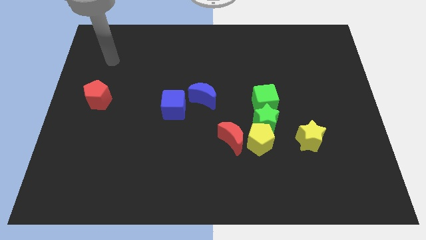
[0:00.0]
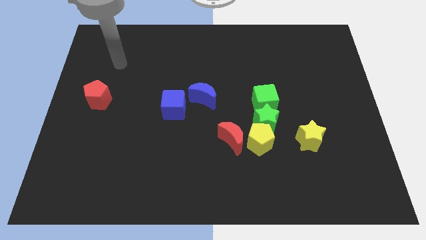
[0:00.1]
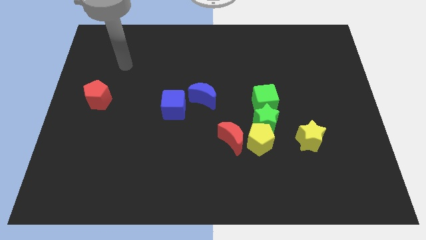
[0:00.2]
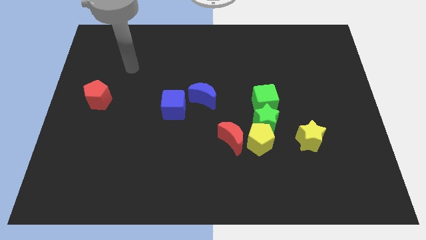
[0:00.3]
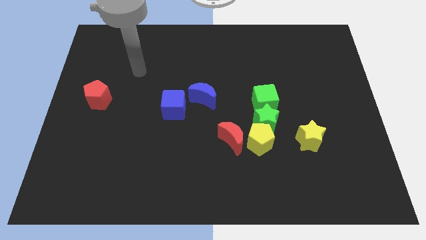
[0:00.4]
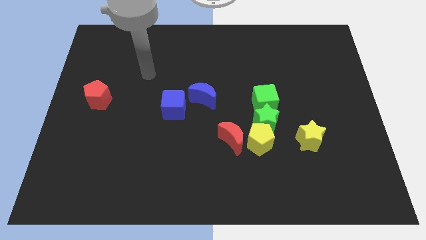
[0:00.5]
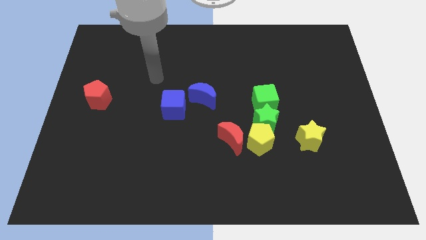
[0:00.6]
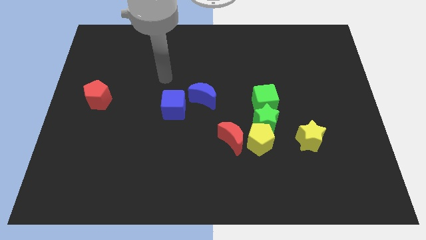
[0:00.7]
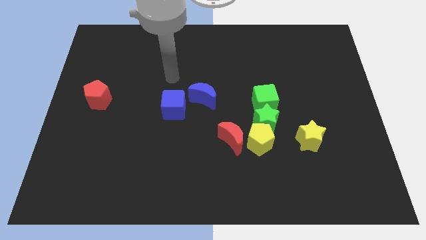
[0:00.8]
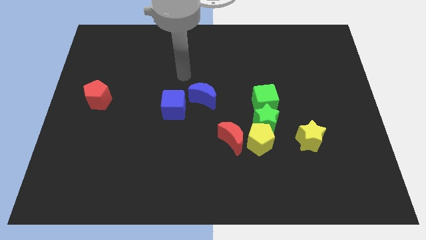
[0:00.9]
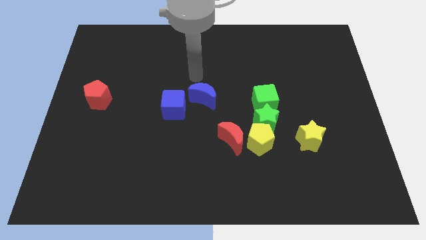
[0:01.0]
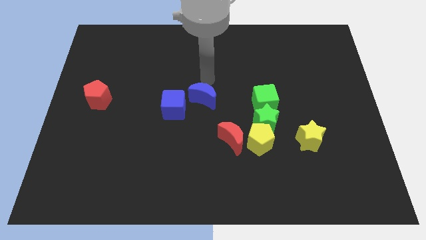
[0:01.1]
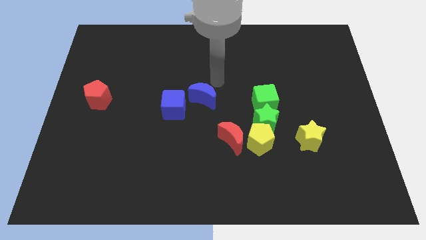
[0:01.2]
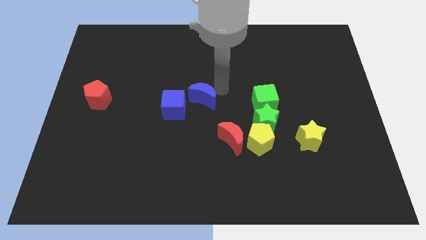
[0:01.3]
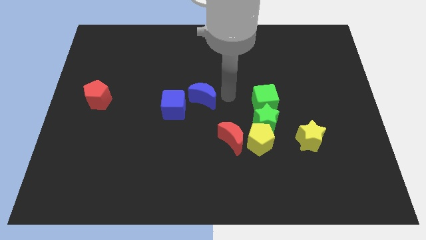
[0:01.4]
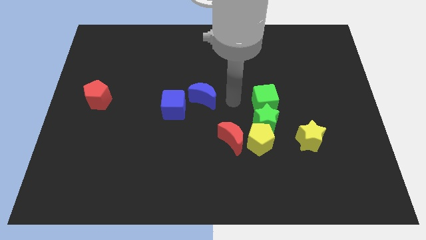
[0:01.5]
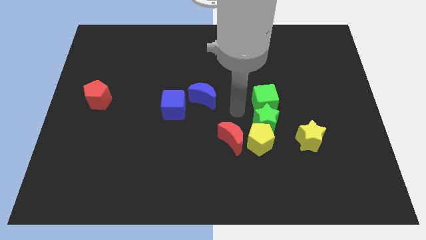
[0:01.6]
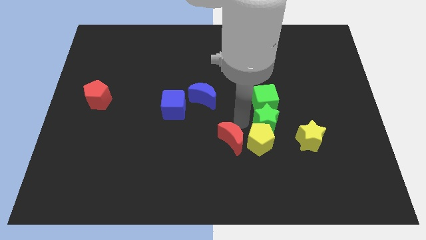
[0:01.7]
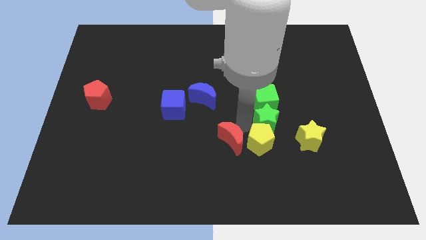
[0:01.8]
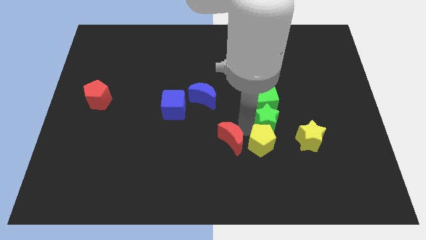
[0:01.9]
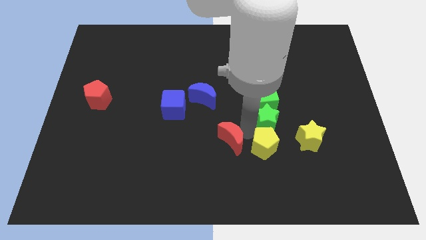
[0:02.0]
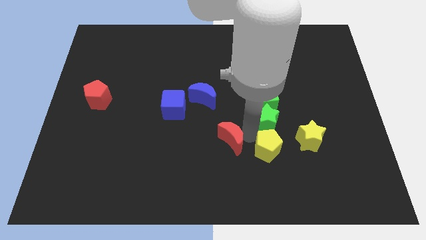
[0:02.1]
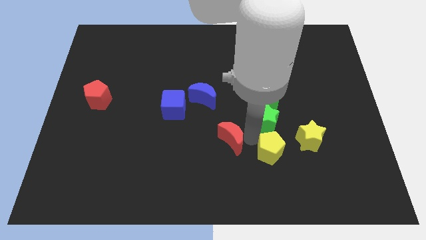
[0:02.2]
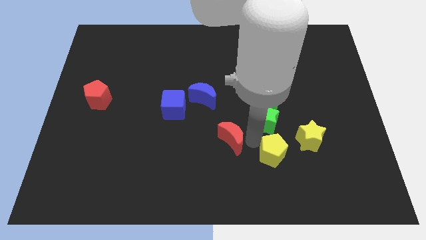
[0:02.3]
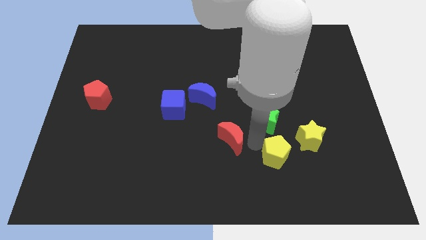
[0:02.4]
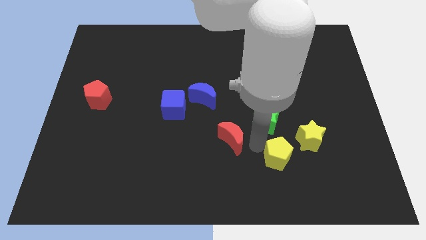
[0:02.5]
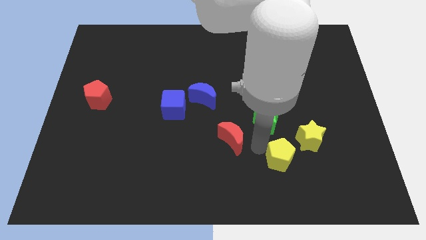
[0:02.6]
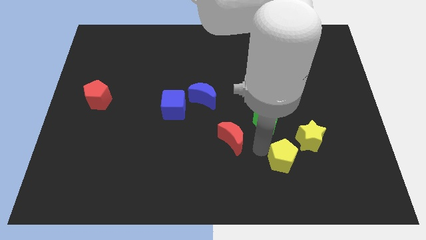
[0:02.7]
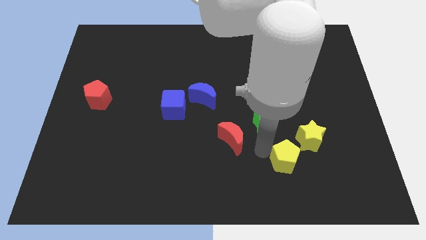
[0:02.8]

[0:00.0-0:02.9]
move the yellow pentagon away from the green star and red moon

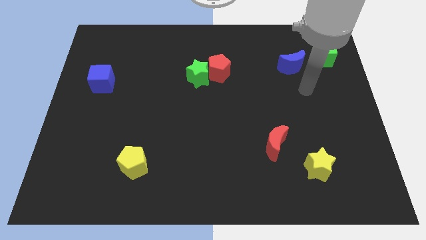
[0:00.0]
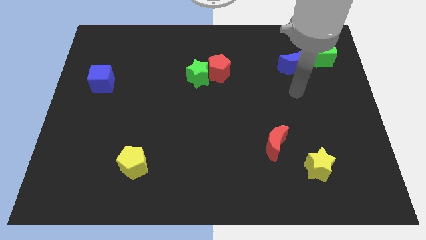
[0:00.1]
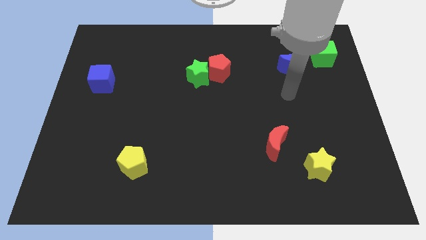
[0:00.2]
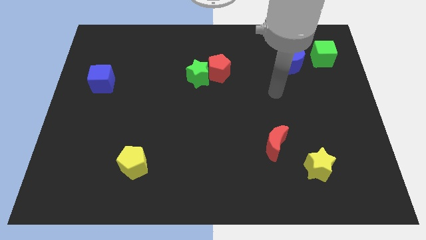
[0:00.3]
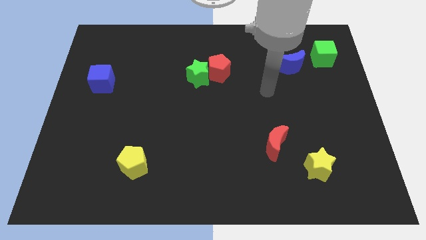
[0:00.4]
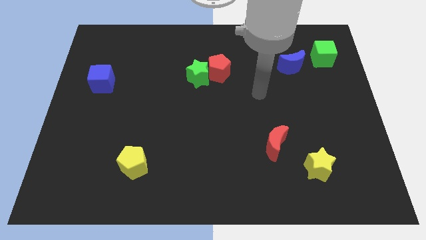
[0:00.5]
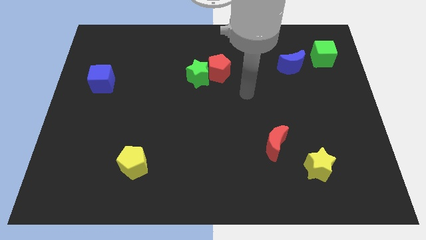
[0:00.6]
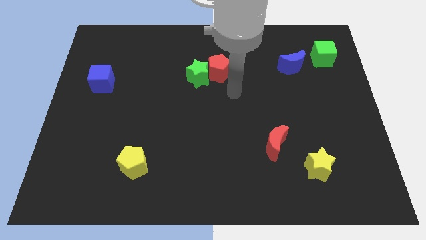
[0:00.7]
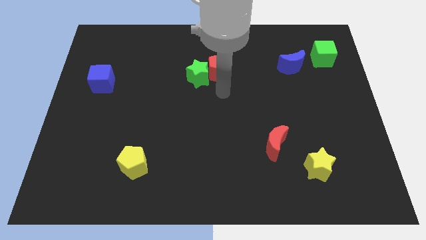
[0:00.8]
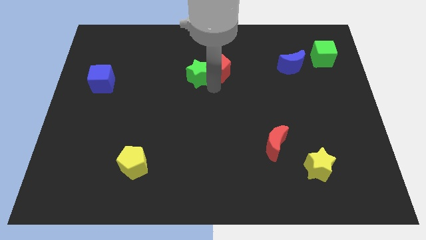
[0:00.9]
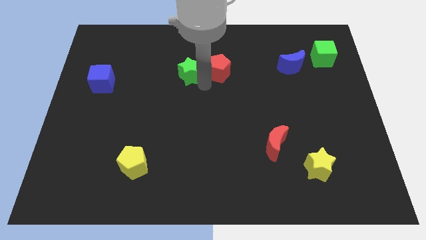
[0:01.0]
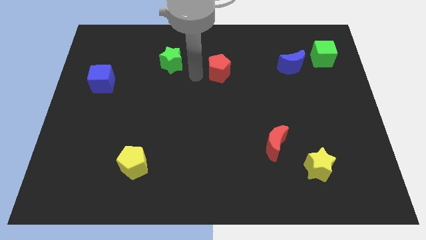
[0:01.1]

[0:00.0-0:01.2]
separate the red pentagon from the green star

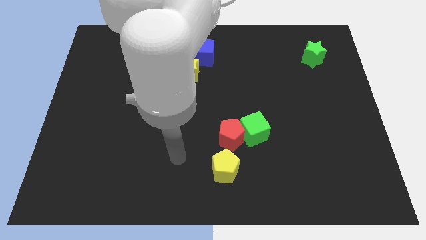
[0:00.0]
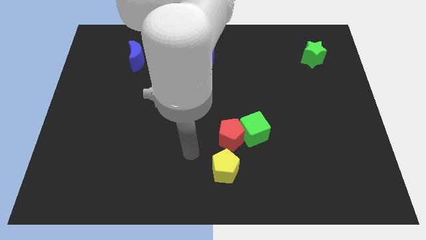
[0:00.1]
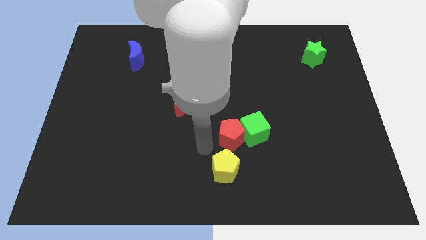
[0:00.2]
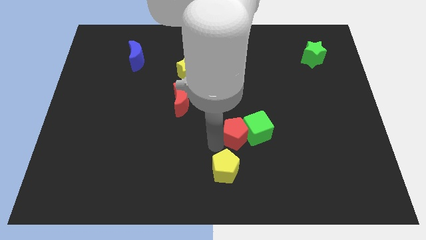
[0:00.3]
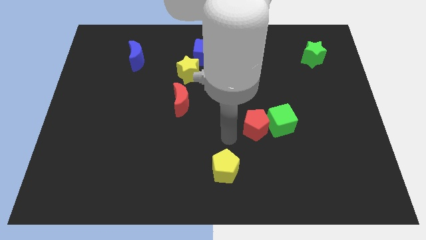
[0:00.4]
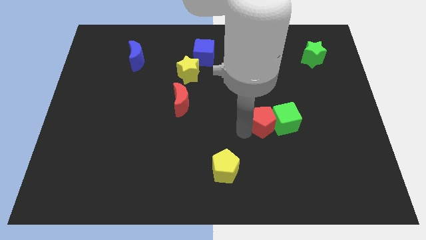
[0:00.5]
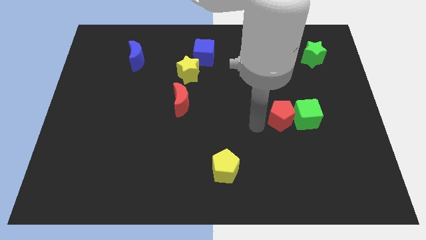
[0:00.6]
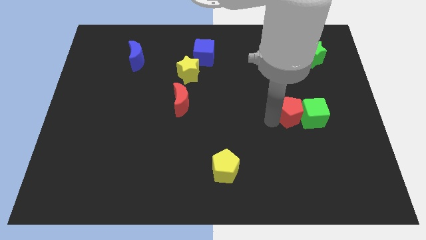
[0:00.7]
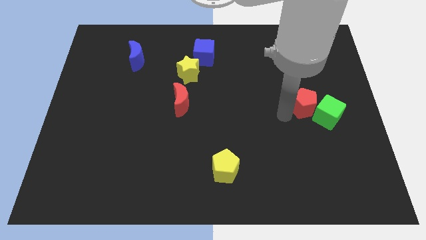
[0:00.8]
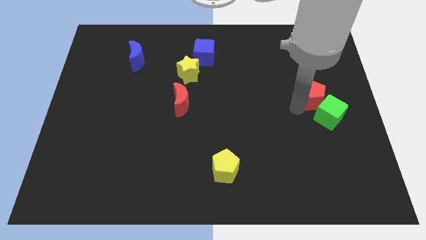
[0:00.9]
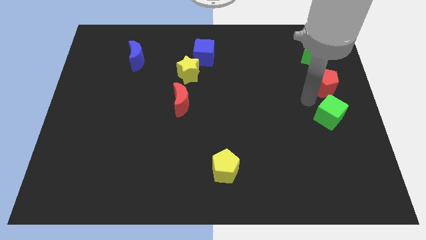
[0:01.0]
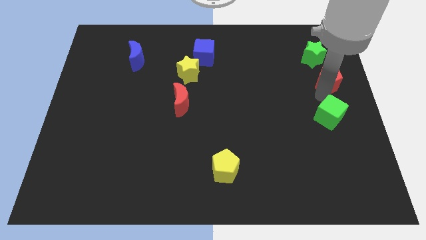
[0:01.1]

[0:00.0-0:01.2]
separate the green cube from the red pentagon

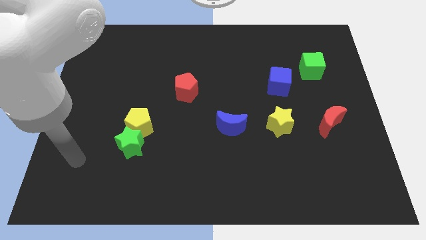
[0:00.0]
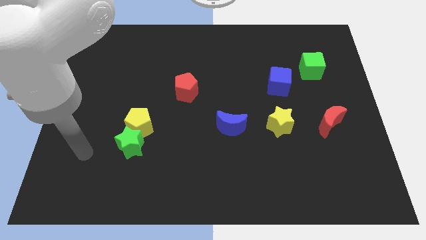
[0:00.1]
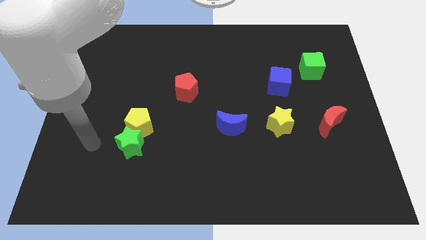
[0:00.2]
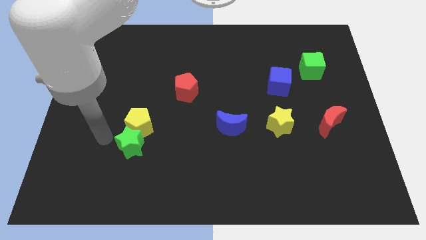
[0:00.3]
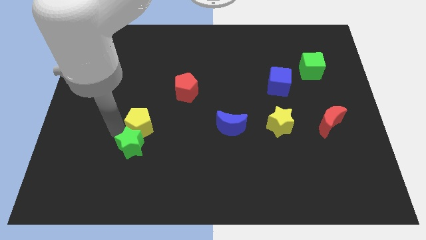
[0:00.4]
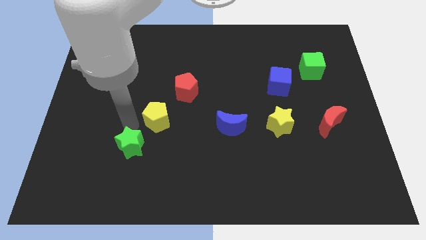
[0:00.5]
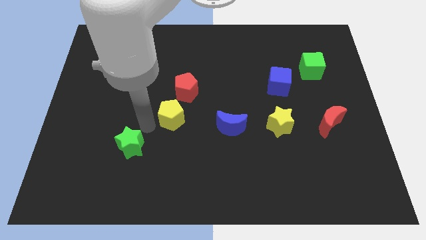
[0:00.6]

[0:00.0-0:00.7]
move the green star away from the yellow pentagon

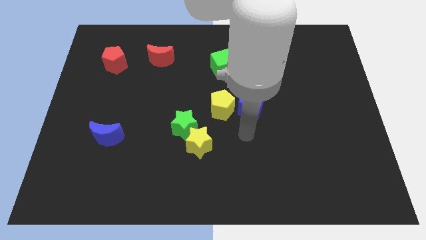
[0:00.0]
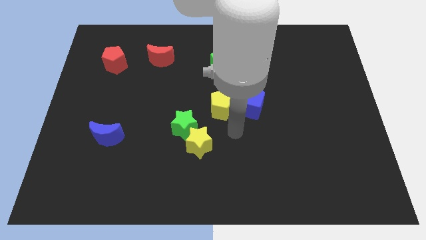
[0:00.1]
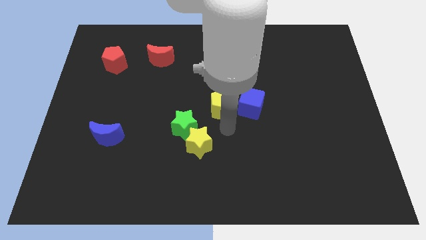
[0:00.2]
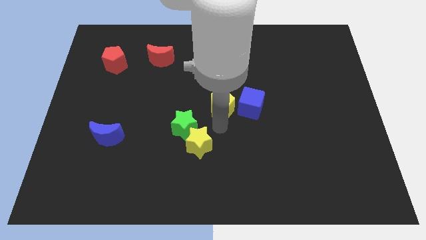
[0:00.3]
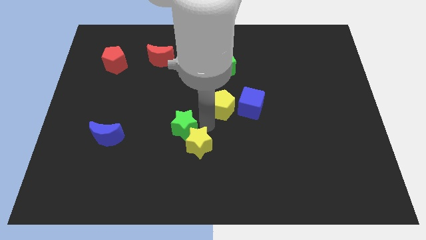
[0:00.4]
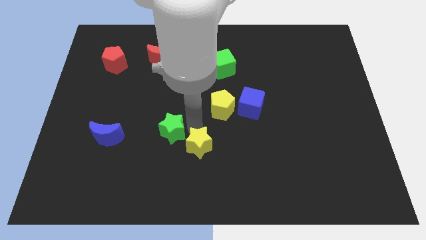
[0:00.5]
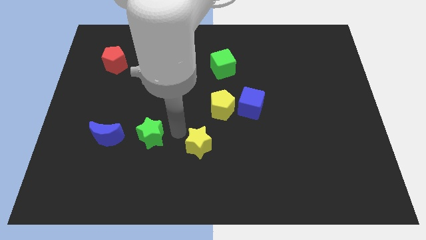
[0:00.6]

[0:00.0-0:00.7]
move the yellow star away from the green star

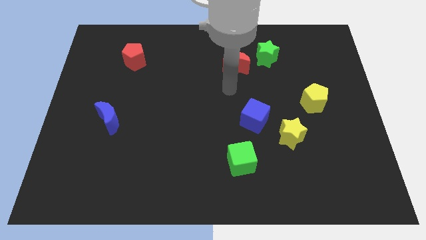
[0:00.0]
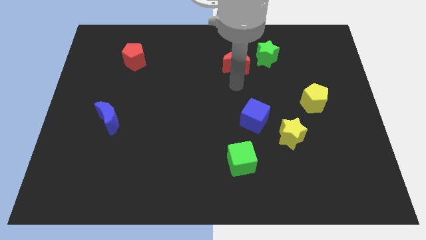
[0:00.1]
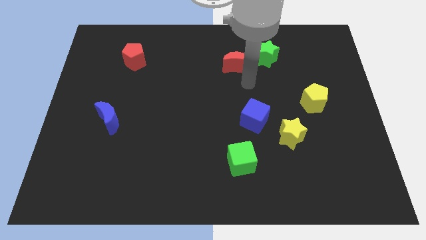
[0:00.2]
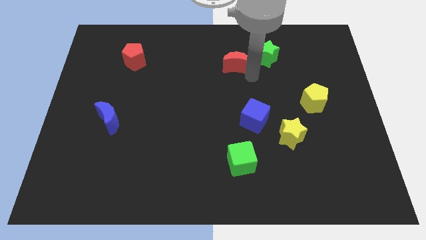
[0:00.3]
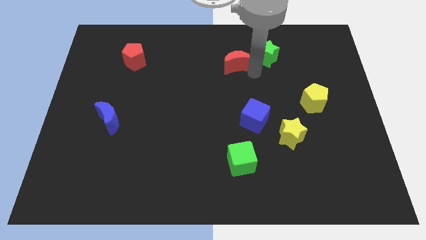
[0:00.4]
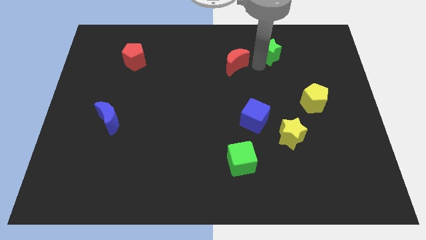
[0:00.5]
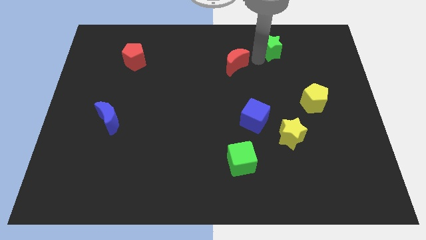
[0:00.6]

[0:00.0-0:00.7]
pull the red moon apart from the green star

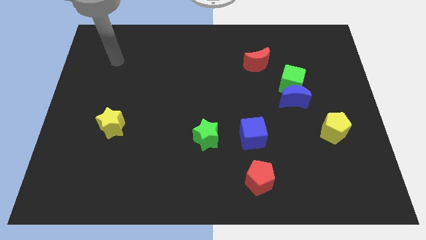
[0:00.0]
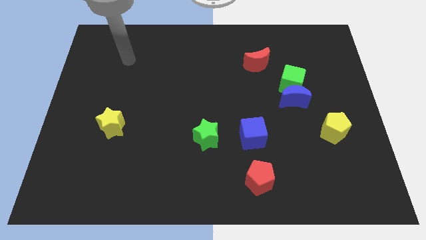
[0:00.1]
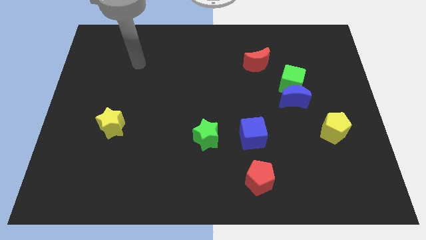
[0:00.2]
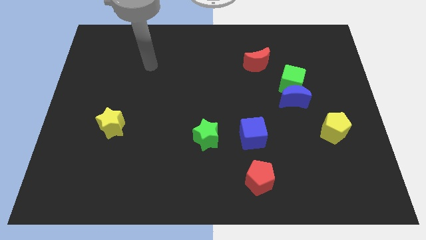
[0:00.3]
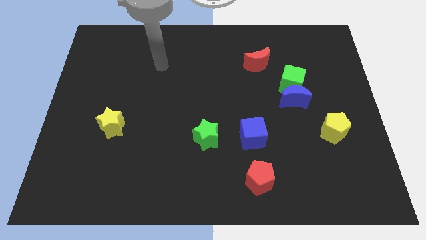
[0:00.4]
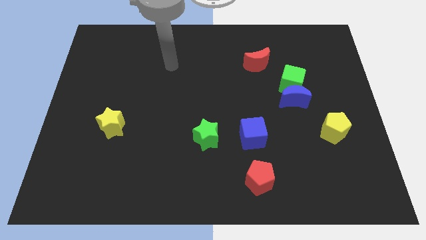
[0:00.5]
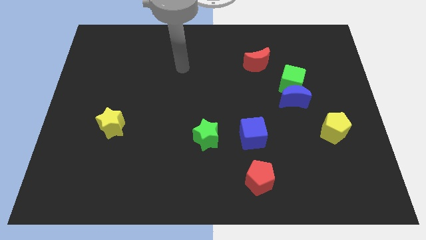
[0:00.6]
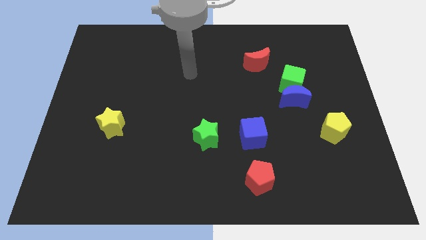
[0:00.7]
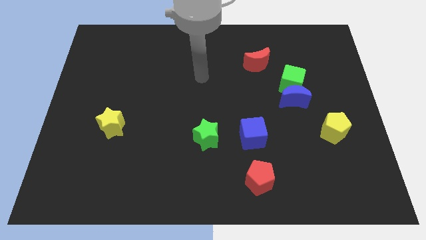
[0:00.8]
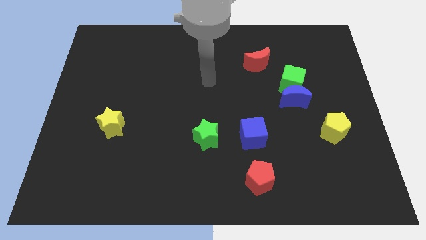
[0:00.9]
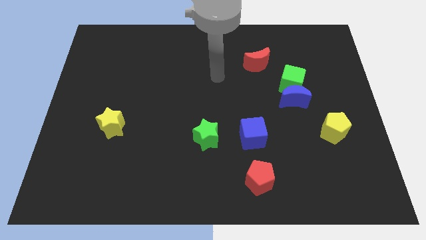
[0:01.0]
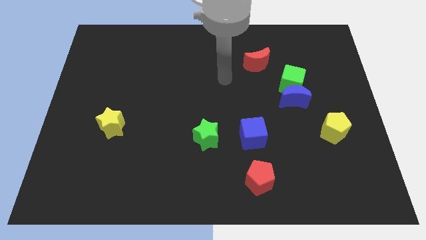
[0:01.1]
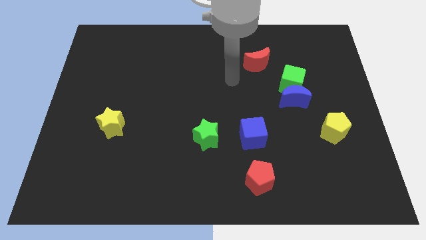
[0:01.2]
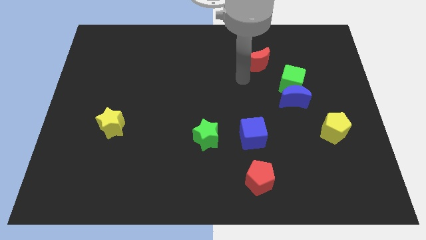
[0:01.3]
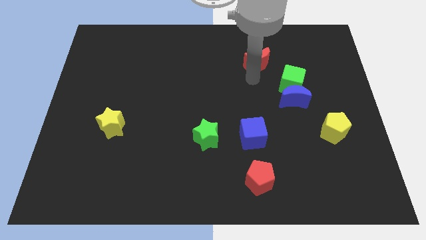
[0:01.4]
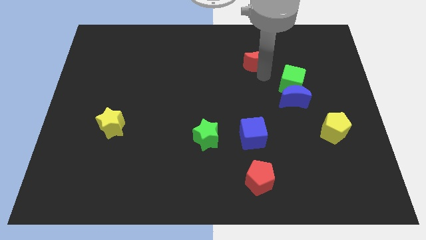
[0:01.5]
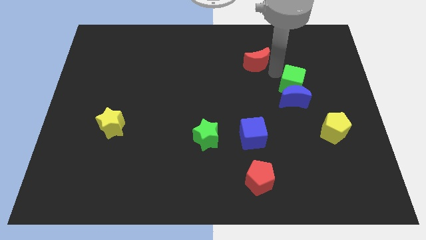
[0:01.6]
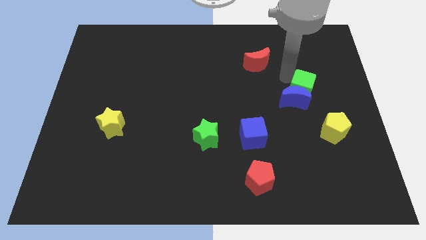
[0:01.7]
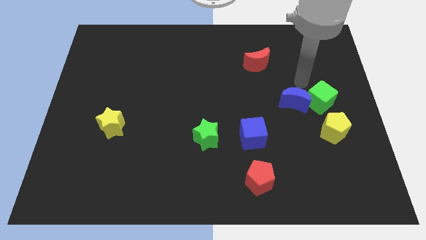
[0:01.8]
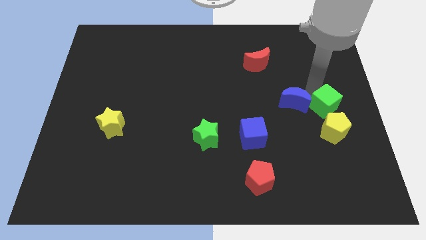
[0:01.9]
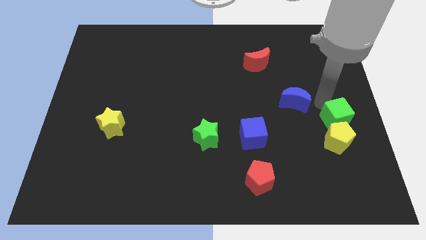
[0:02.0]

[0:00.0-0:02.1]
separate the blue moon from the green cube
